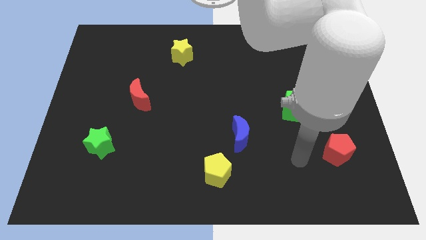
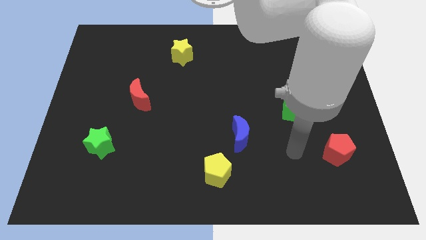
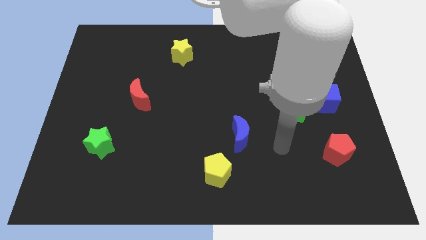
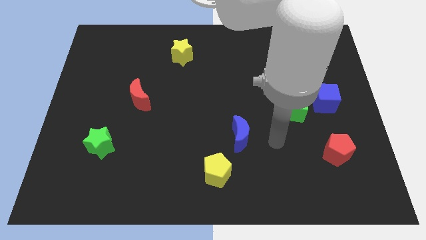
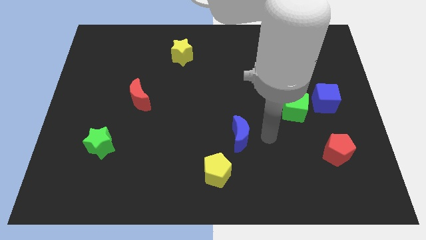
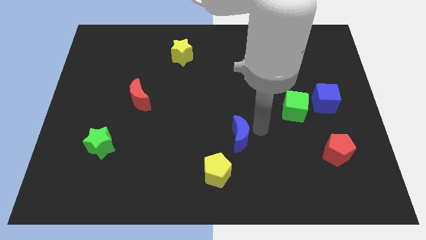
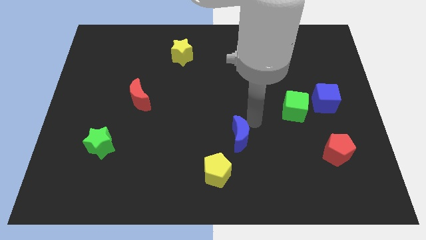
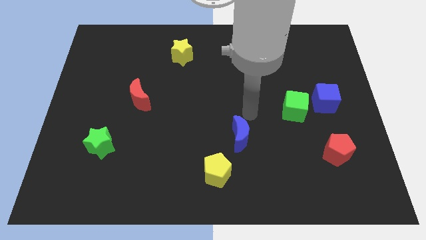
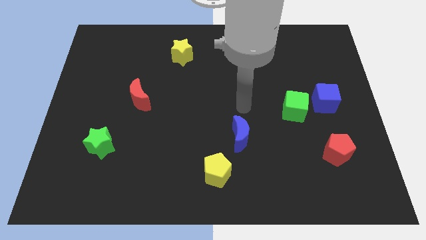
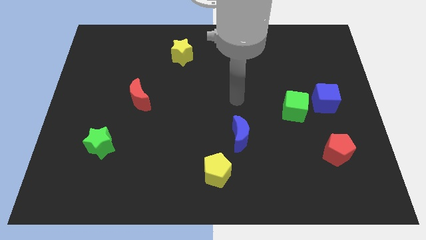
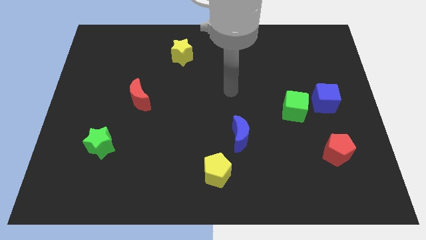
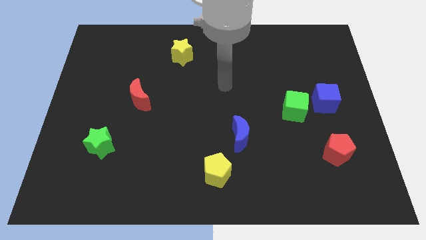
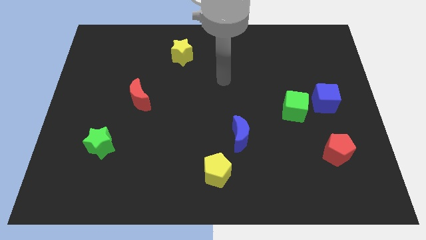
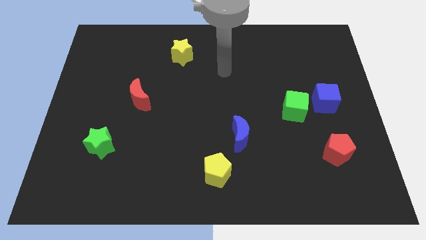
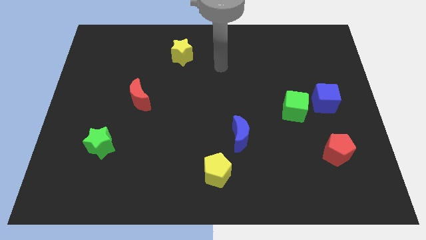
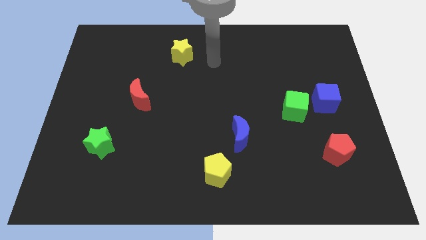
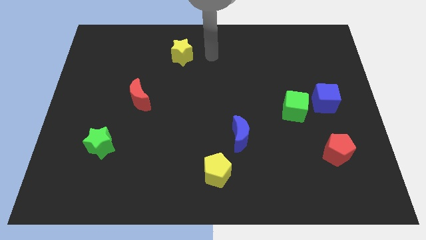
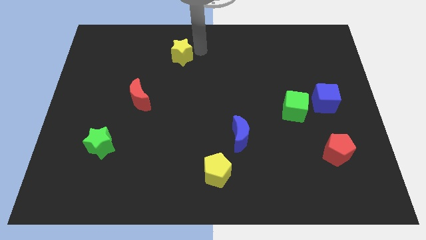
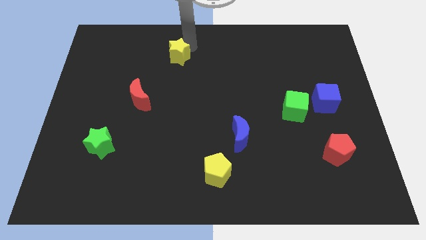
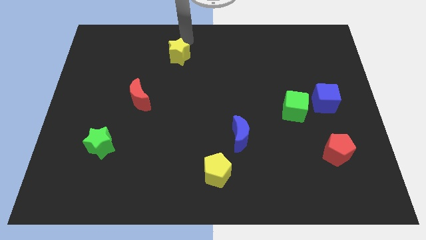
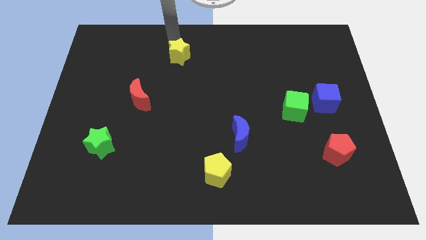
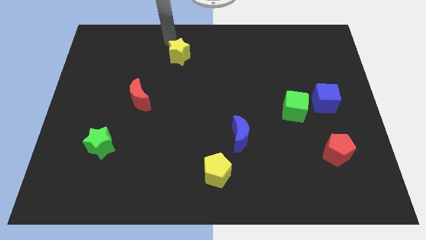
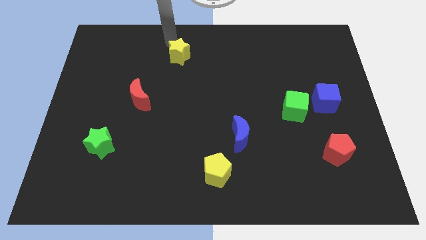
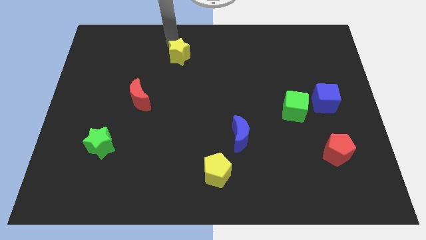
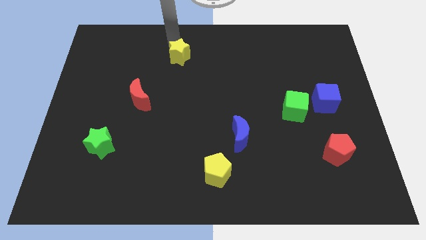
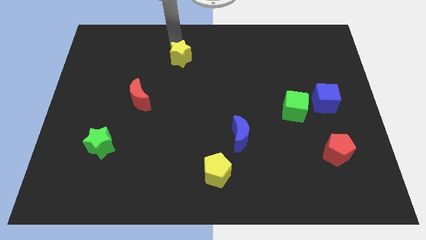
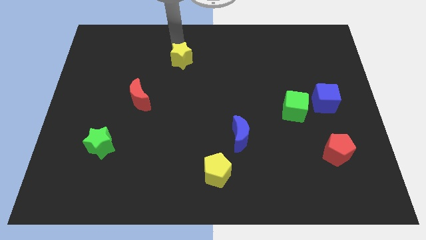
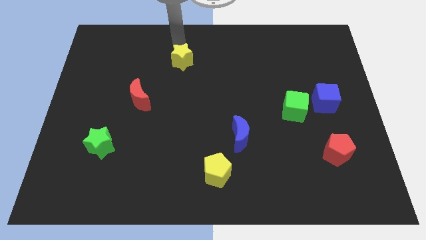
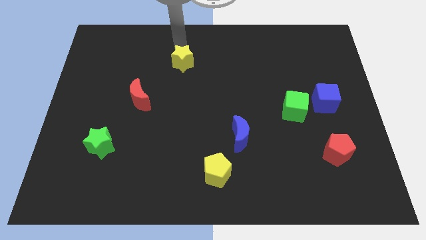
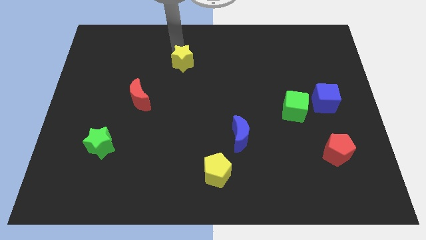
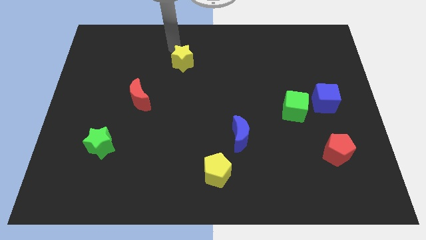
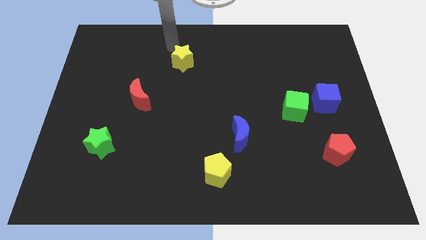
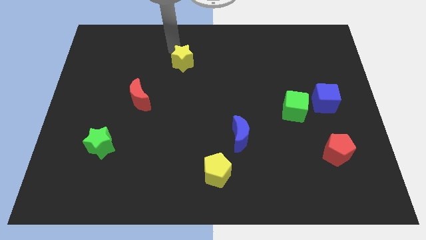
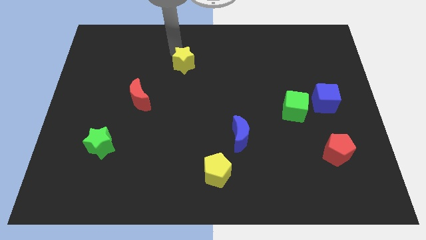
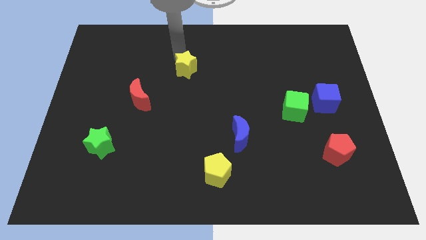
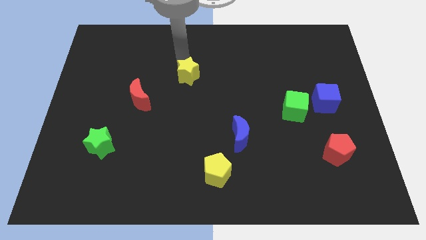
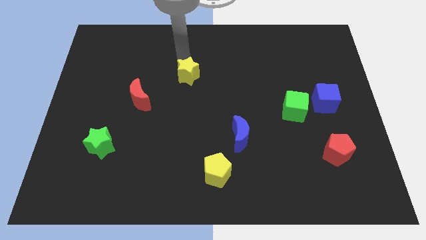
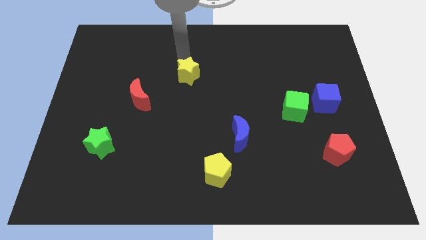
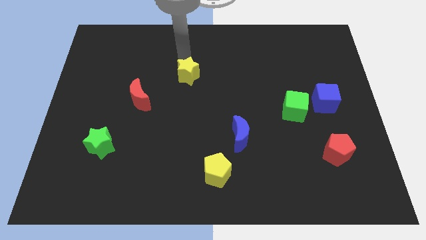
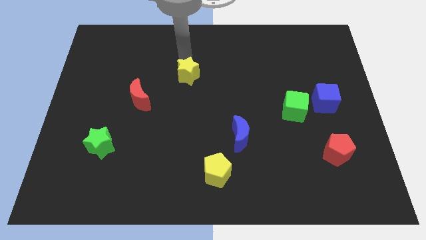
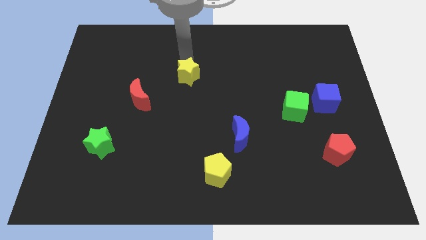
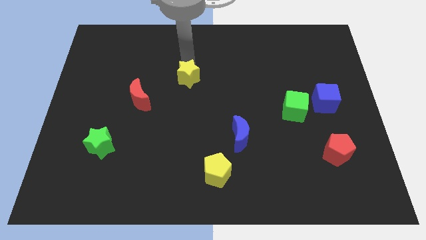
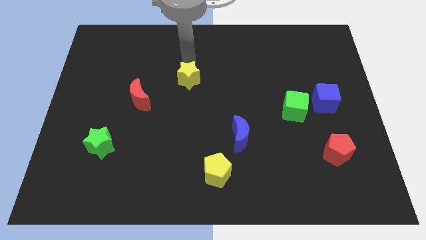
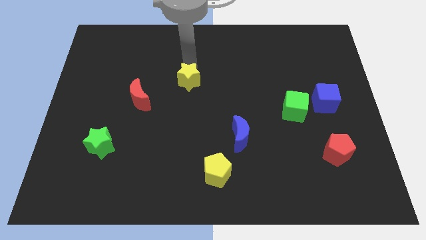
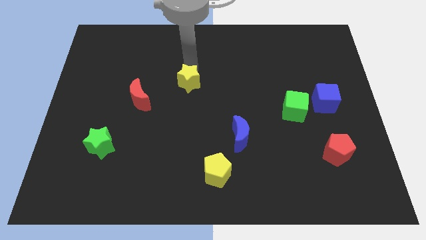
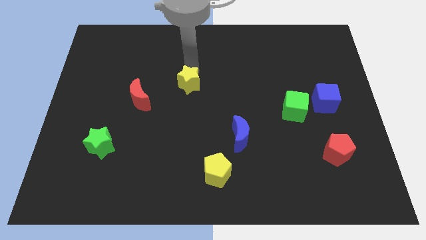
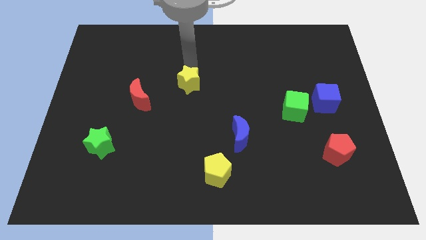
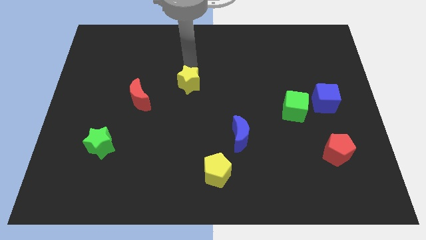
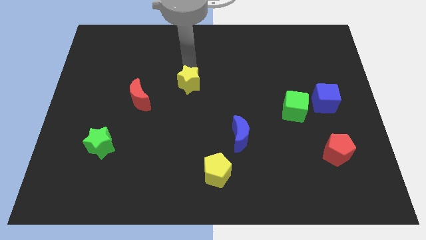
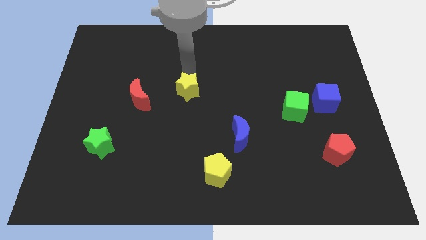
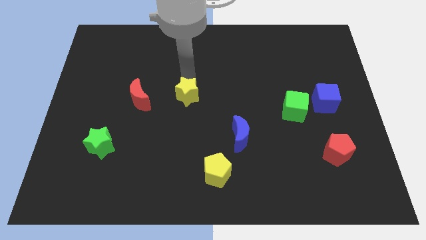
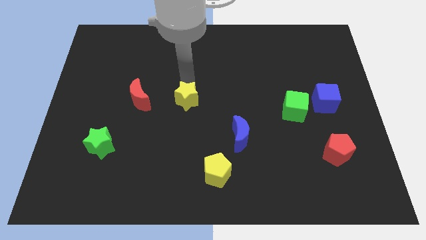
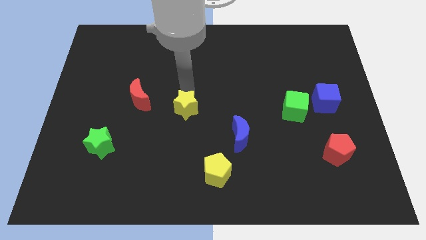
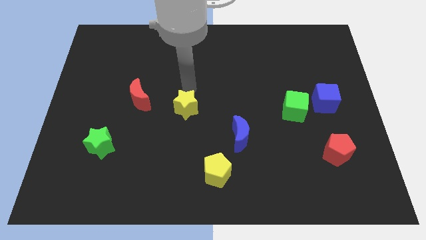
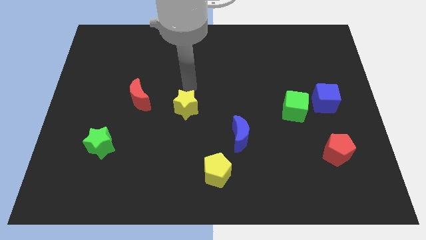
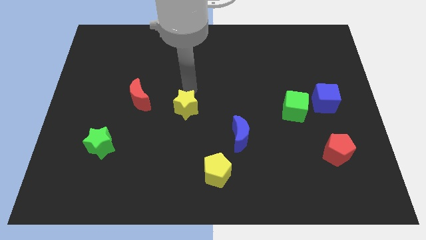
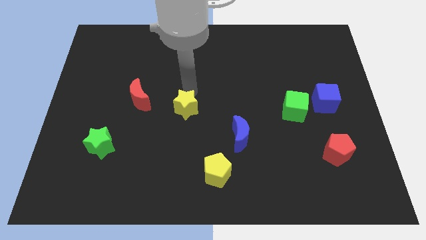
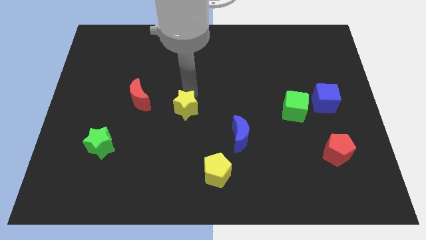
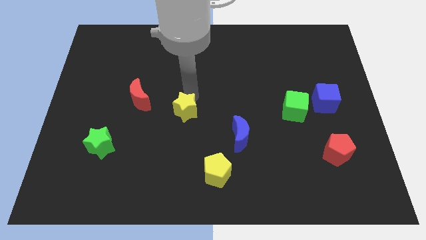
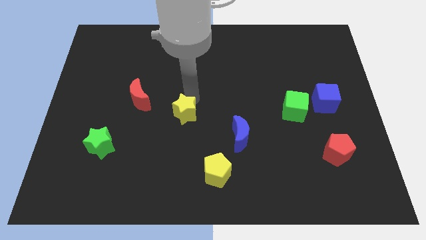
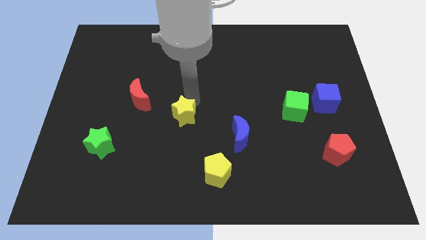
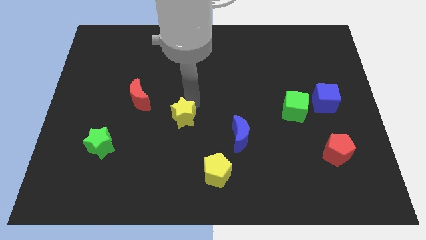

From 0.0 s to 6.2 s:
slide the yellow star downwards

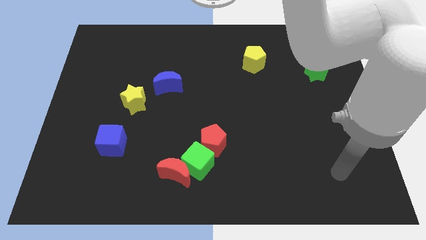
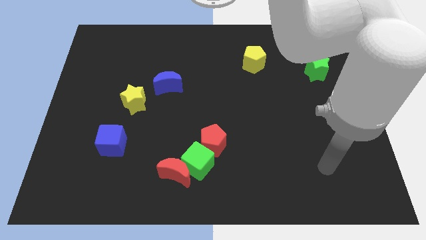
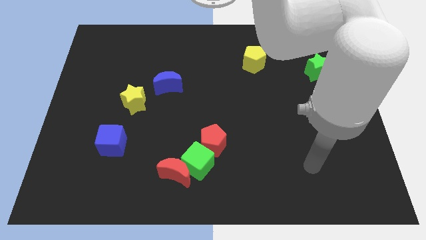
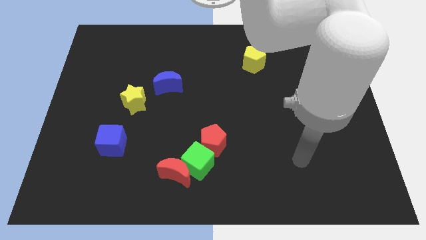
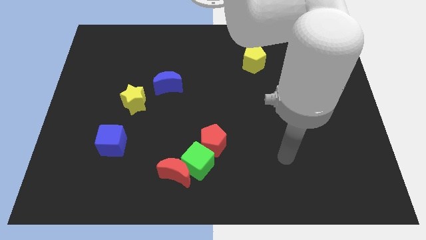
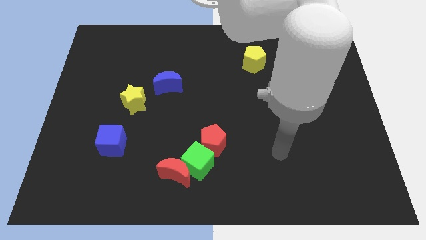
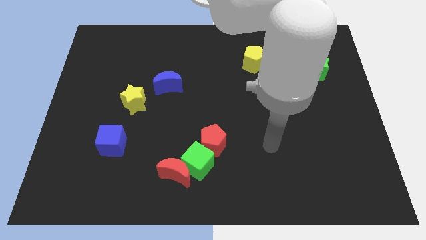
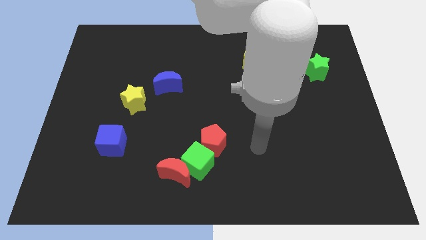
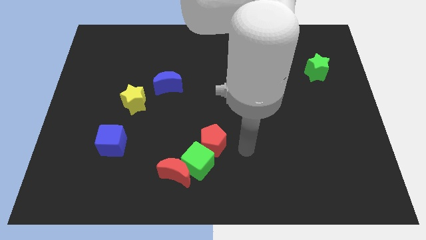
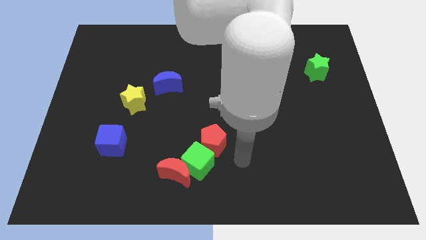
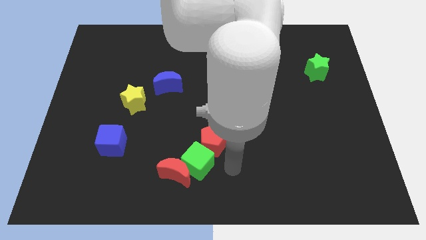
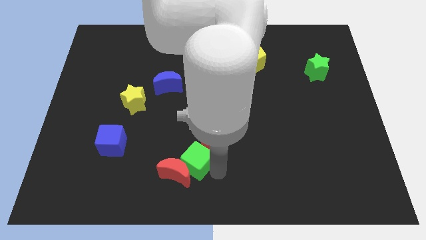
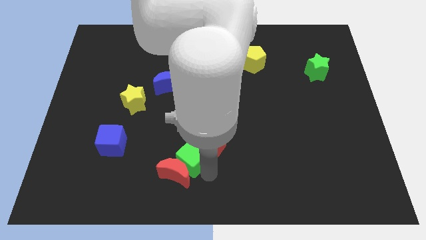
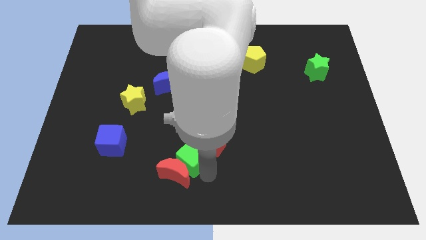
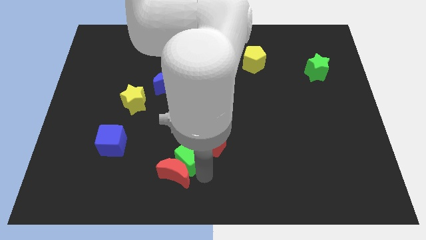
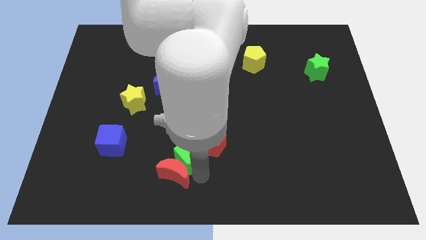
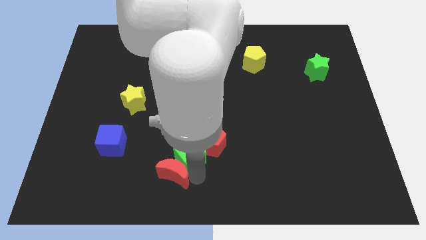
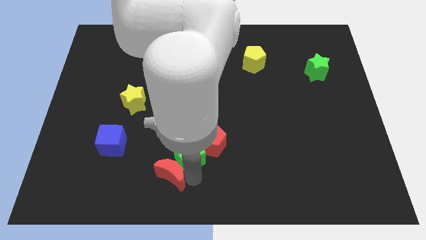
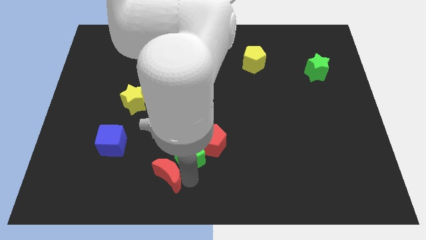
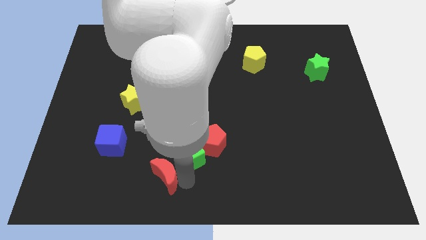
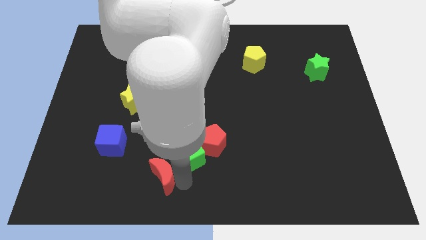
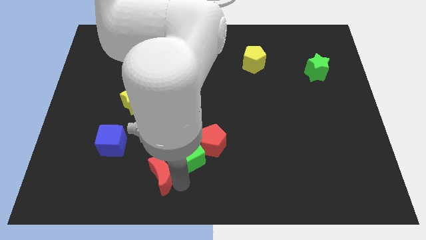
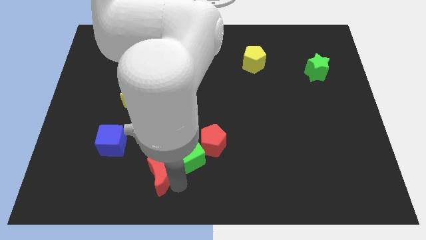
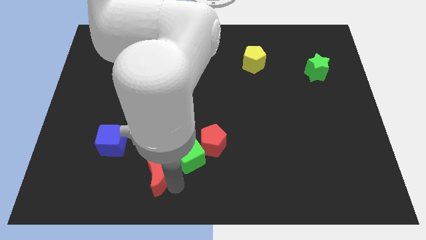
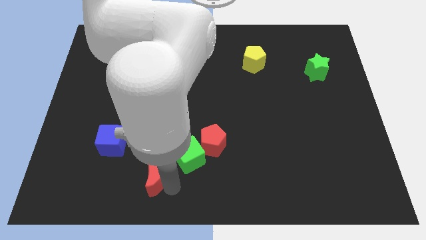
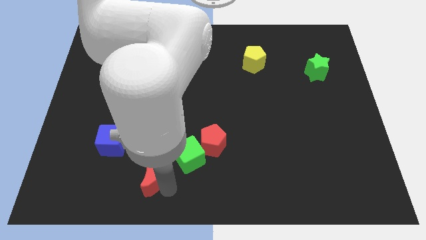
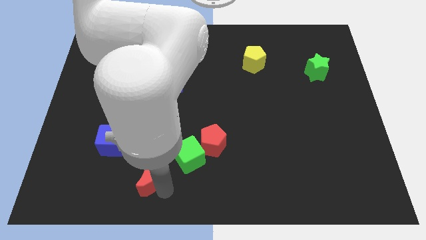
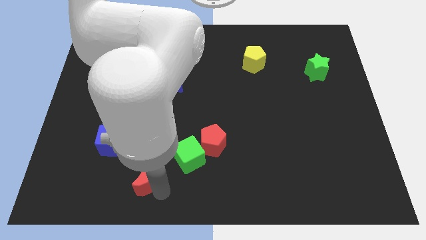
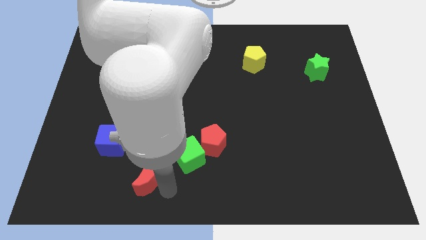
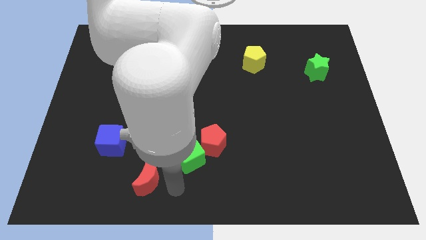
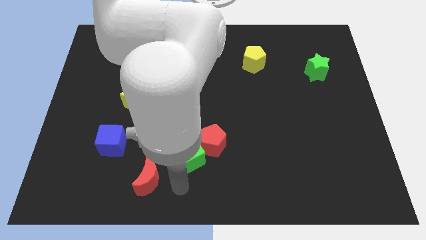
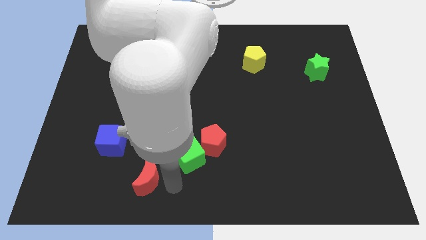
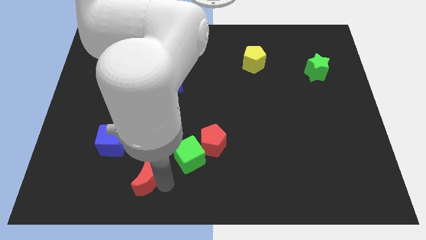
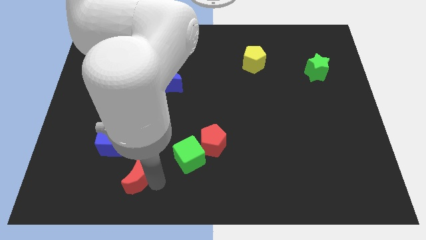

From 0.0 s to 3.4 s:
slide the red moon a little bit left
